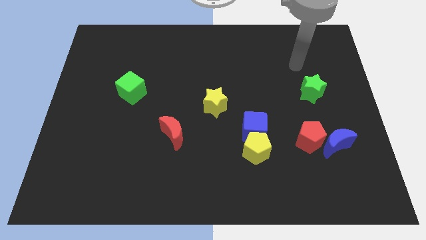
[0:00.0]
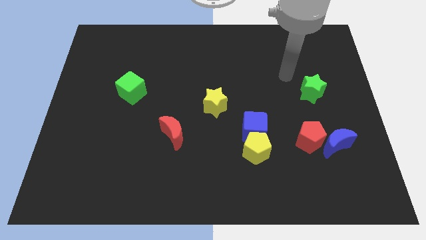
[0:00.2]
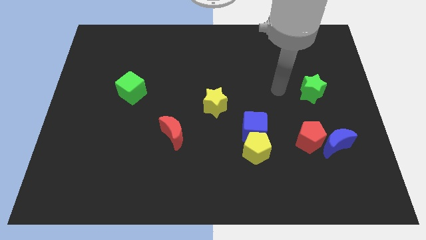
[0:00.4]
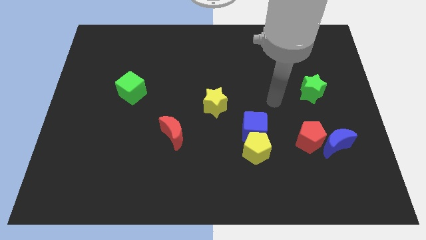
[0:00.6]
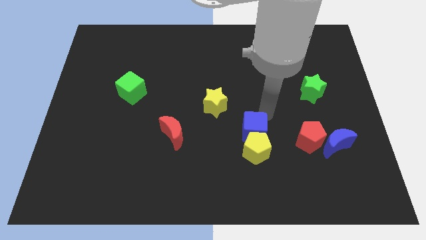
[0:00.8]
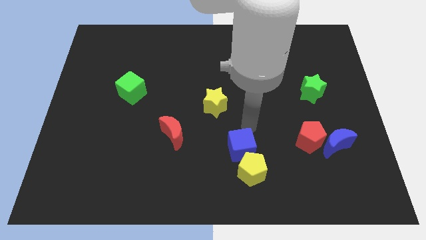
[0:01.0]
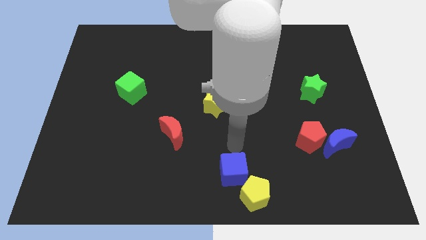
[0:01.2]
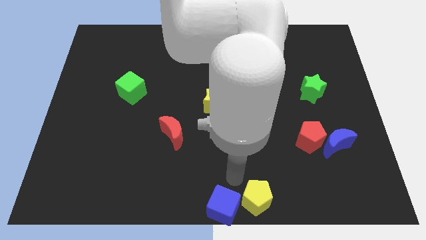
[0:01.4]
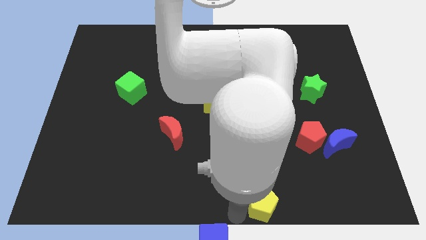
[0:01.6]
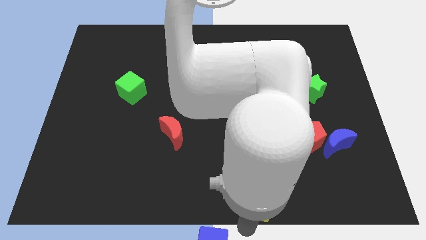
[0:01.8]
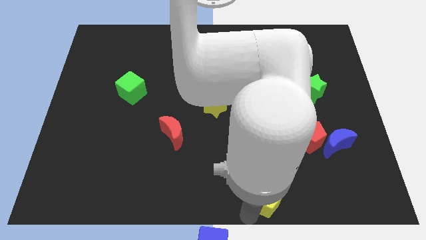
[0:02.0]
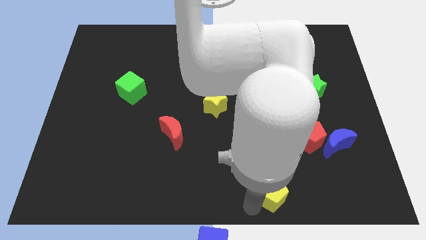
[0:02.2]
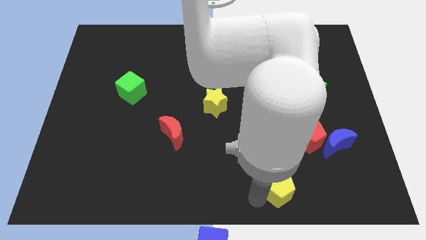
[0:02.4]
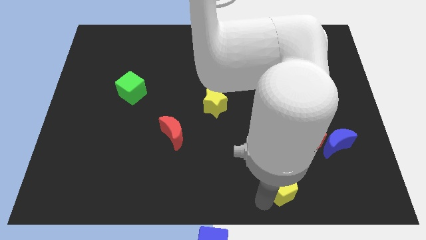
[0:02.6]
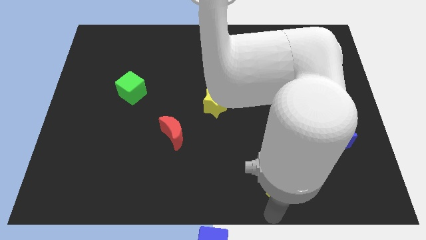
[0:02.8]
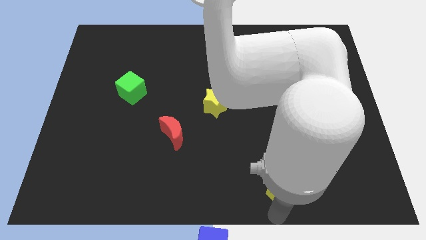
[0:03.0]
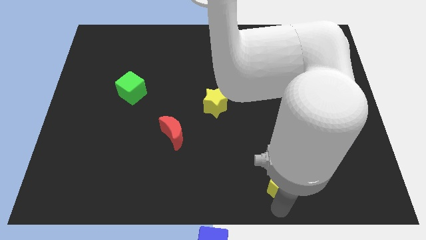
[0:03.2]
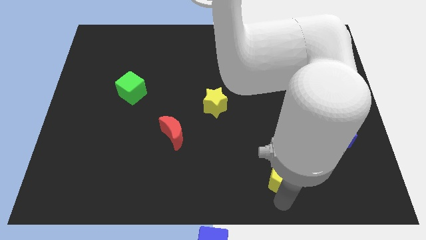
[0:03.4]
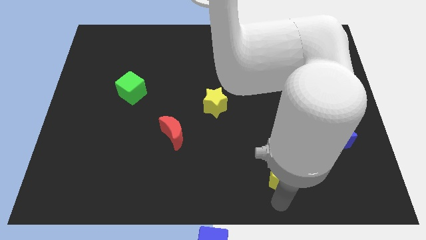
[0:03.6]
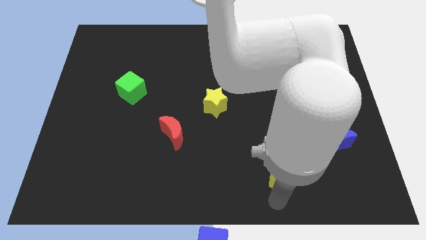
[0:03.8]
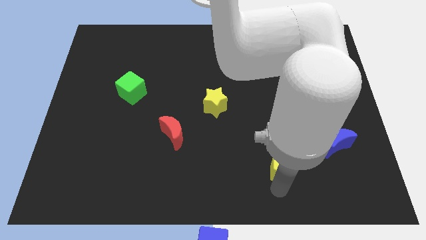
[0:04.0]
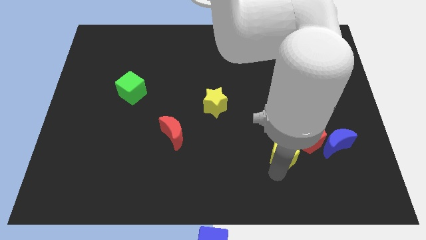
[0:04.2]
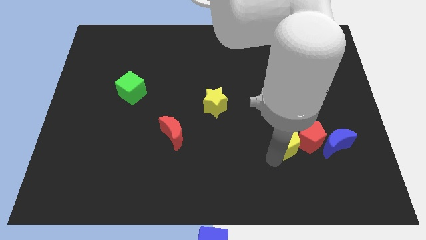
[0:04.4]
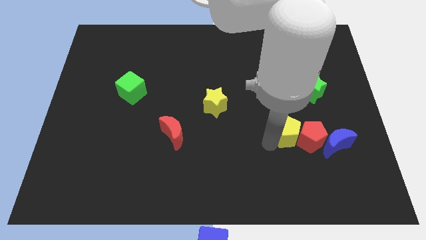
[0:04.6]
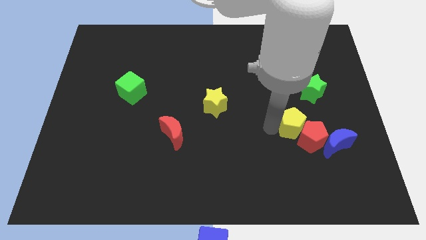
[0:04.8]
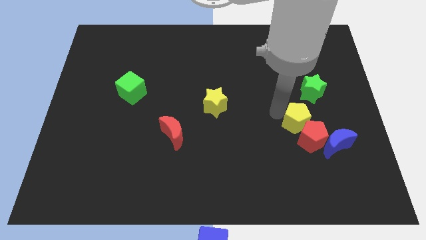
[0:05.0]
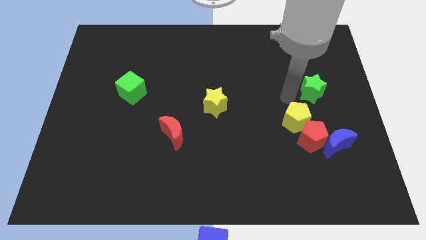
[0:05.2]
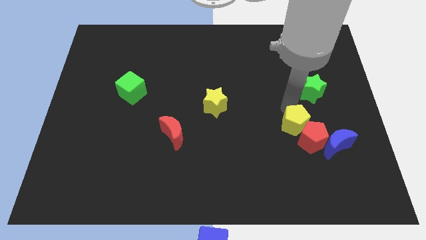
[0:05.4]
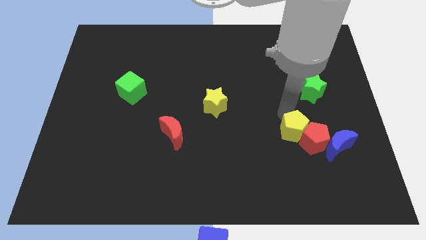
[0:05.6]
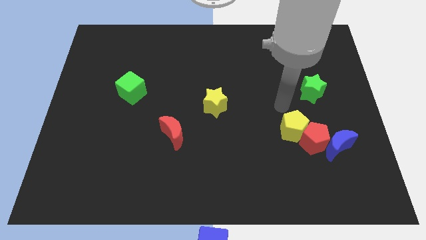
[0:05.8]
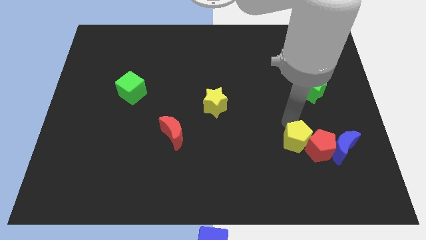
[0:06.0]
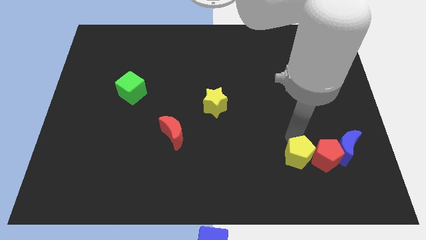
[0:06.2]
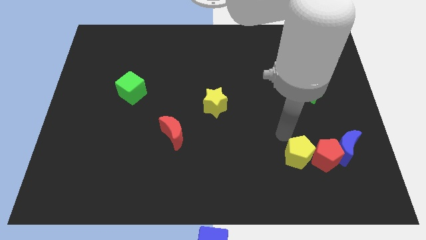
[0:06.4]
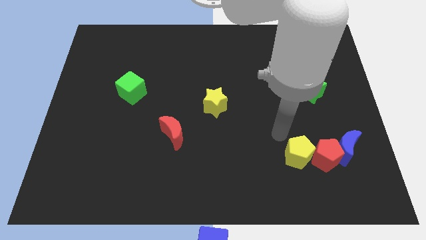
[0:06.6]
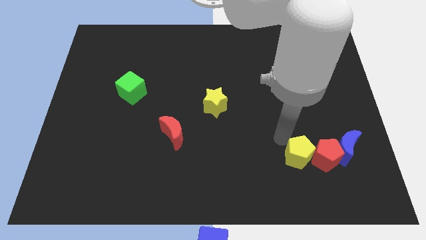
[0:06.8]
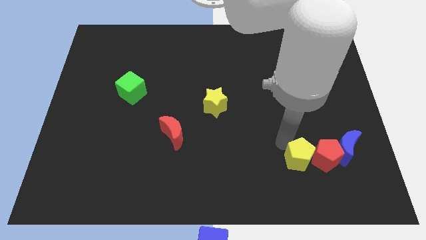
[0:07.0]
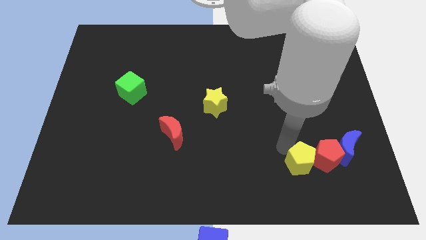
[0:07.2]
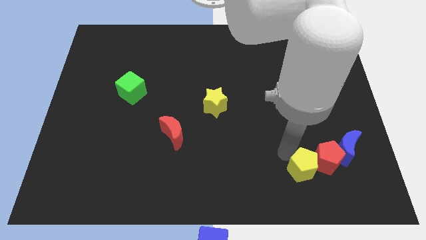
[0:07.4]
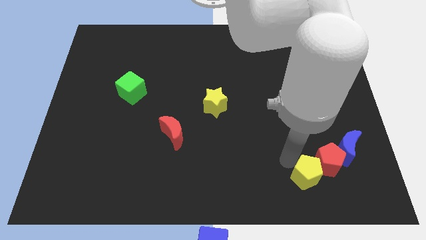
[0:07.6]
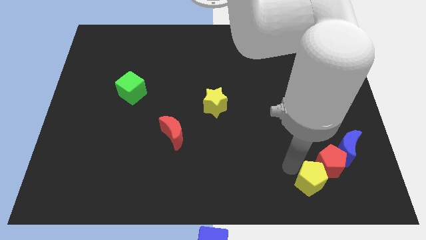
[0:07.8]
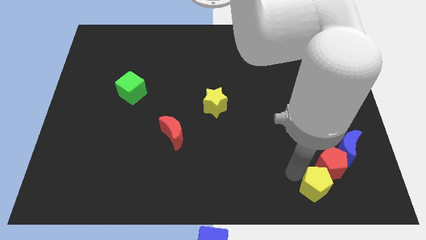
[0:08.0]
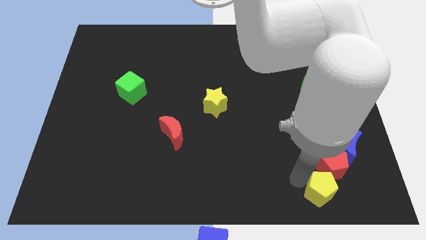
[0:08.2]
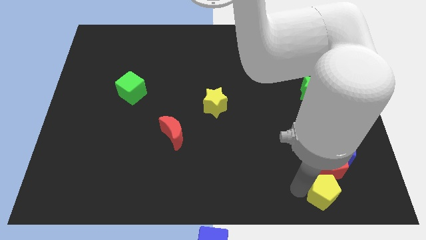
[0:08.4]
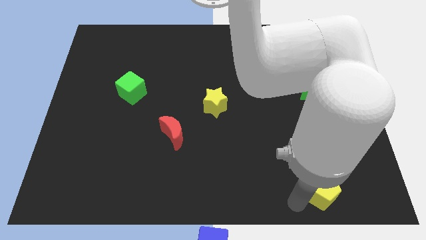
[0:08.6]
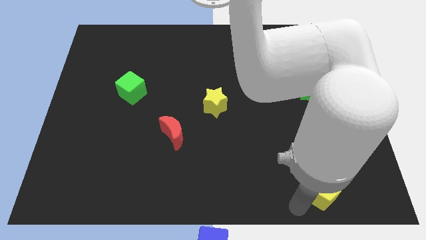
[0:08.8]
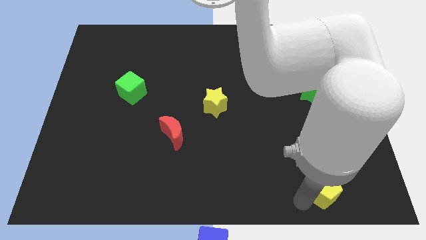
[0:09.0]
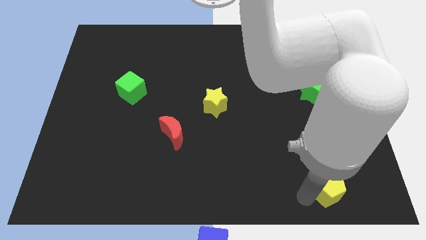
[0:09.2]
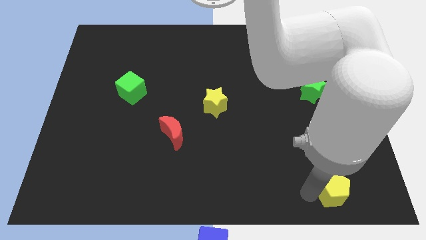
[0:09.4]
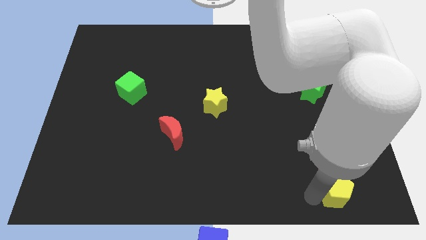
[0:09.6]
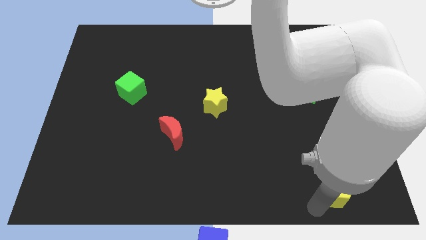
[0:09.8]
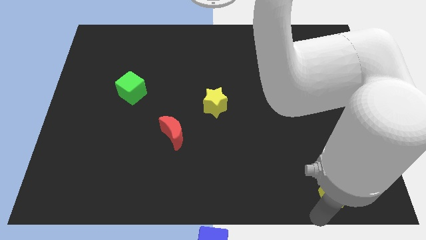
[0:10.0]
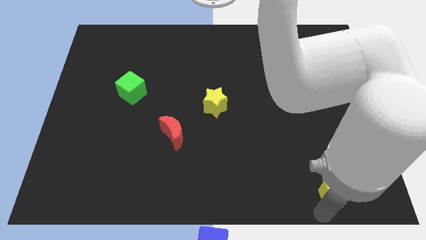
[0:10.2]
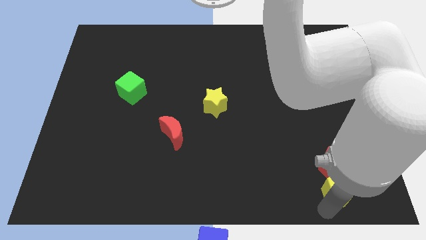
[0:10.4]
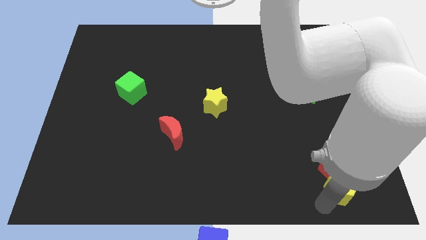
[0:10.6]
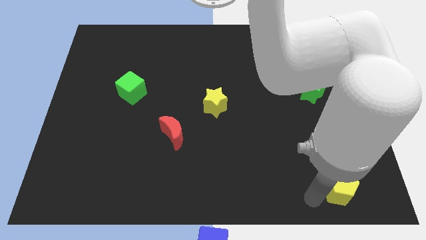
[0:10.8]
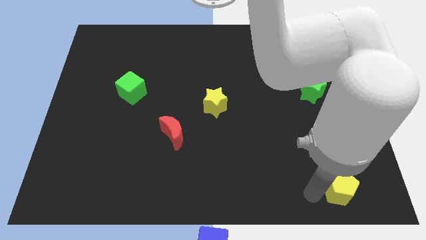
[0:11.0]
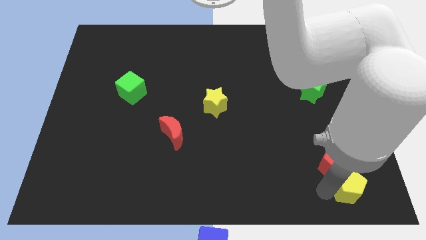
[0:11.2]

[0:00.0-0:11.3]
move the yellow pentagon to the bottom right corner

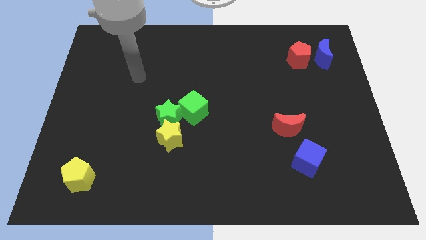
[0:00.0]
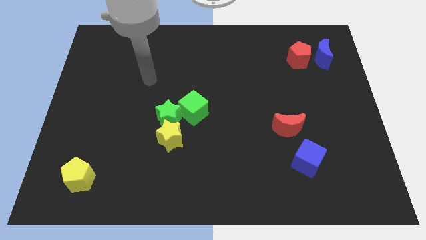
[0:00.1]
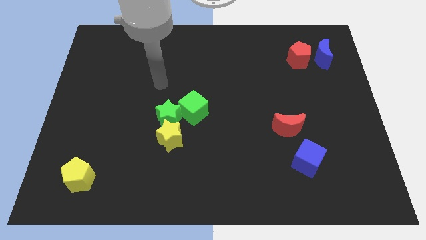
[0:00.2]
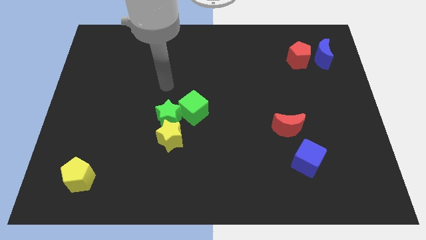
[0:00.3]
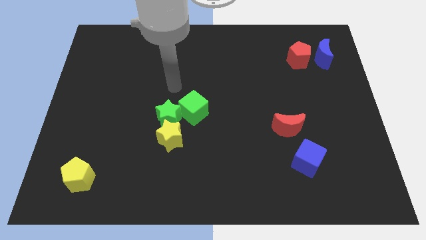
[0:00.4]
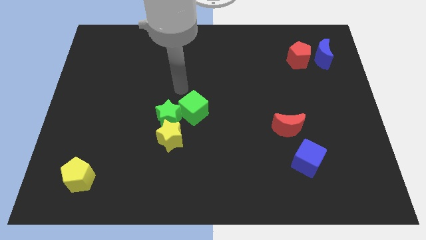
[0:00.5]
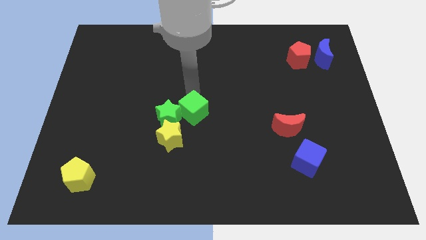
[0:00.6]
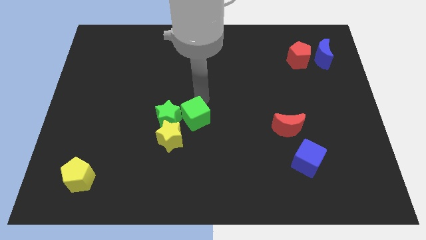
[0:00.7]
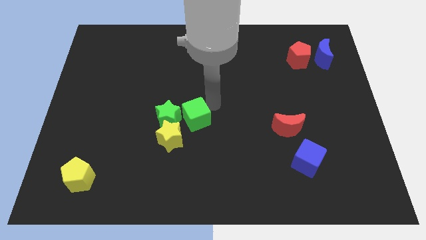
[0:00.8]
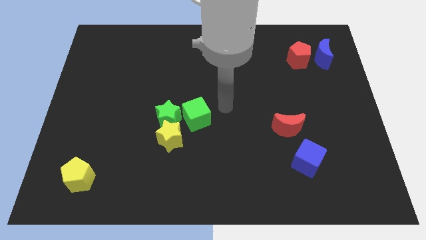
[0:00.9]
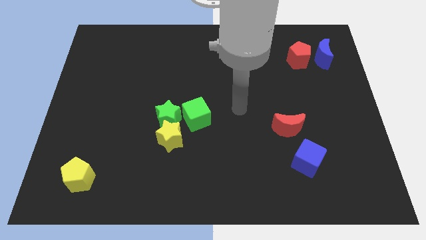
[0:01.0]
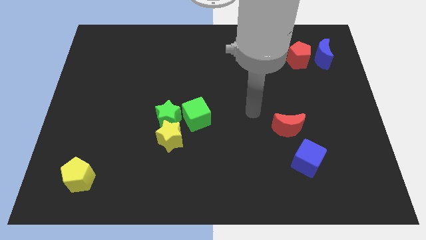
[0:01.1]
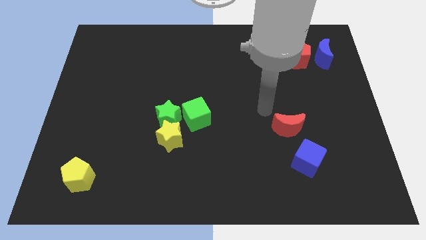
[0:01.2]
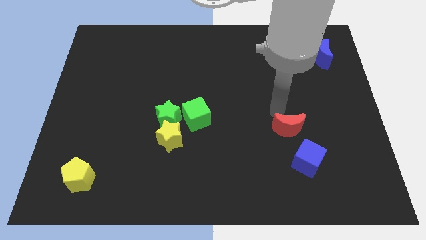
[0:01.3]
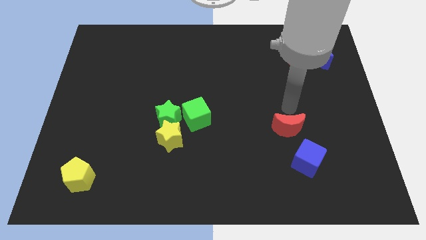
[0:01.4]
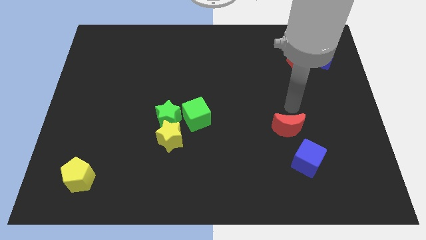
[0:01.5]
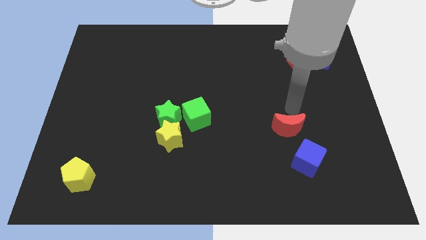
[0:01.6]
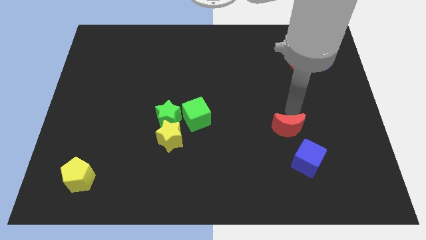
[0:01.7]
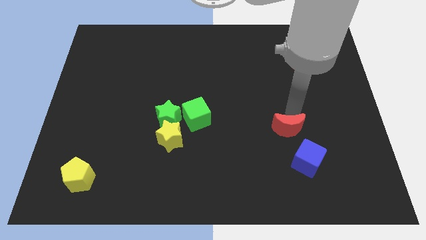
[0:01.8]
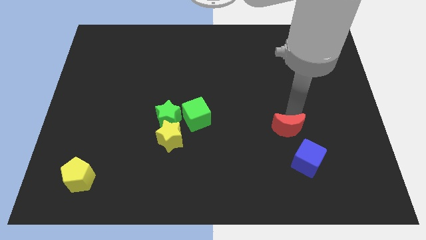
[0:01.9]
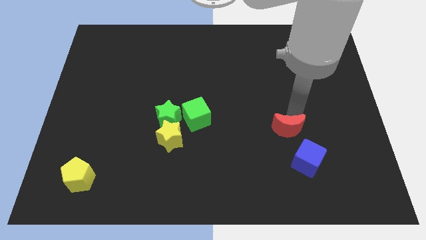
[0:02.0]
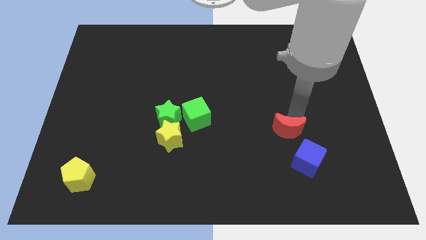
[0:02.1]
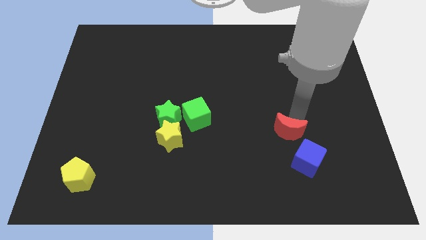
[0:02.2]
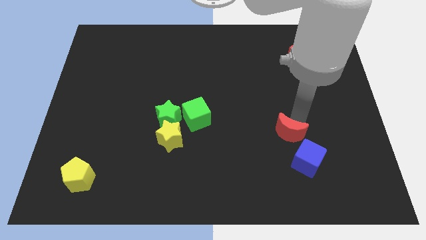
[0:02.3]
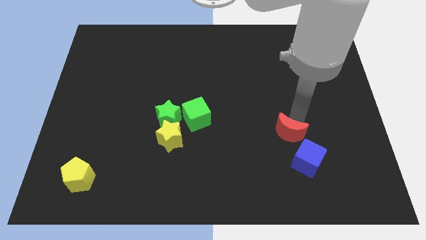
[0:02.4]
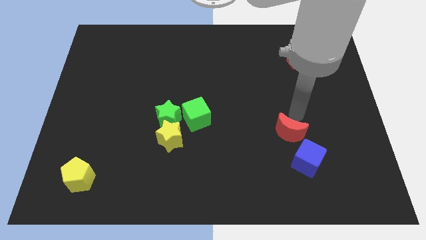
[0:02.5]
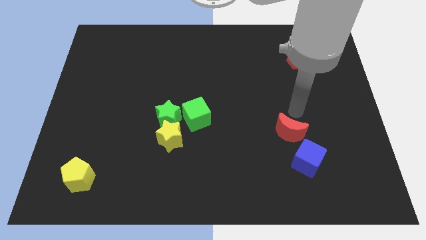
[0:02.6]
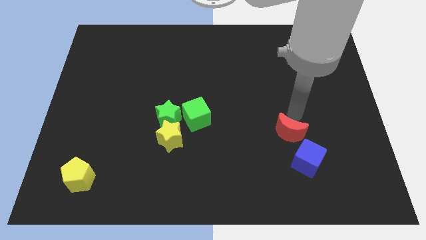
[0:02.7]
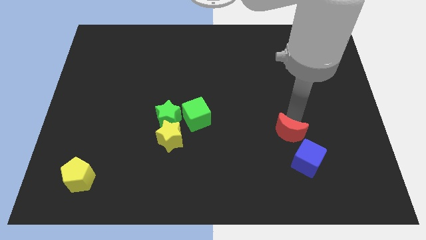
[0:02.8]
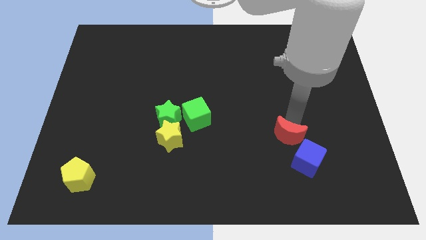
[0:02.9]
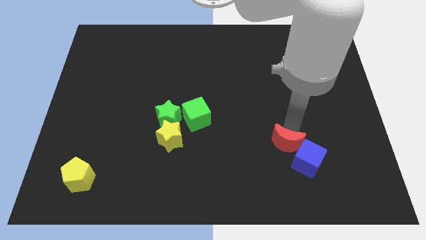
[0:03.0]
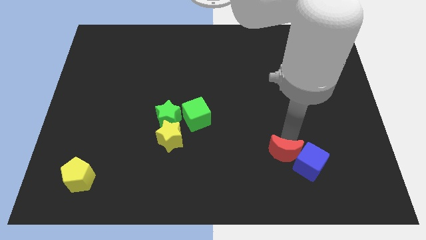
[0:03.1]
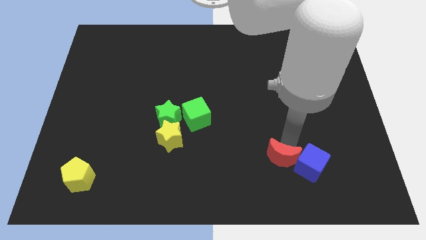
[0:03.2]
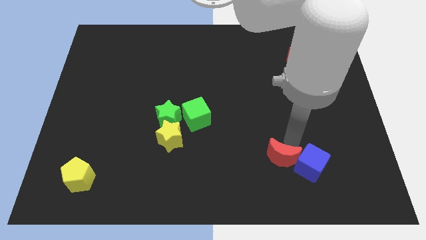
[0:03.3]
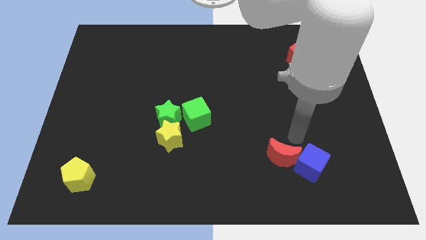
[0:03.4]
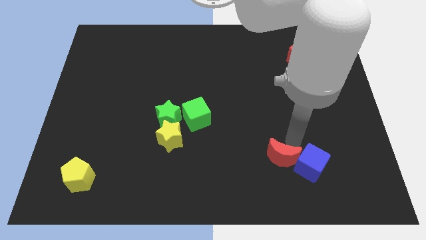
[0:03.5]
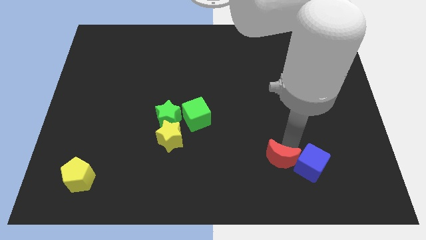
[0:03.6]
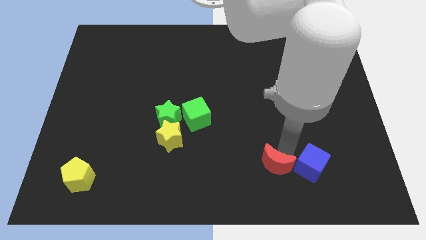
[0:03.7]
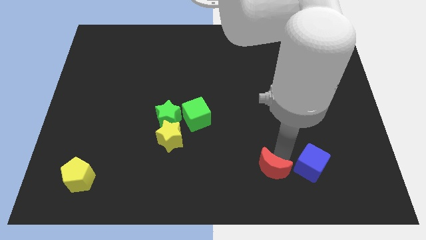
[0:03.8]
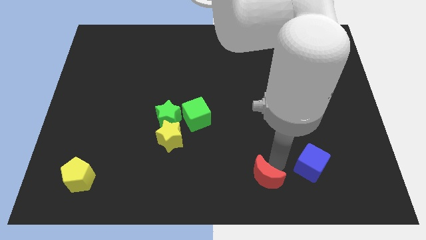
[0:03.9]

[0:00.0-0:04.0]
push the red moon to the bottom side
